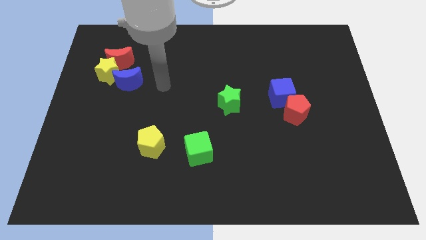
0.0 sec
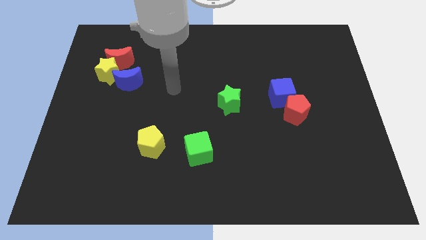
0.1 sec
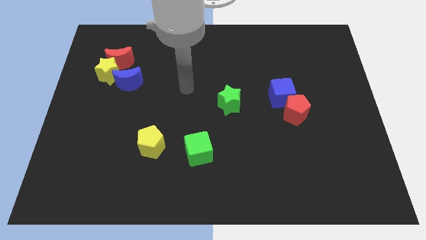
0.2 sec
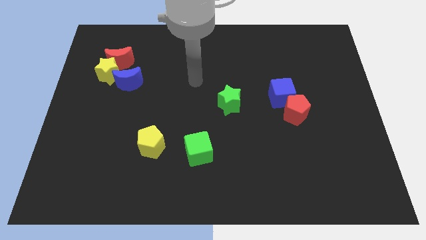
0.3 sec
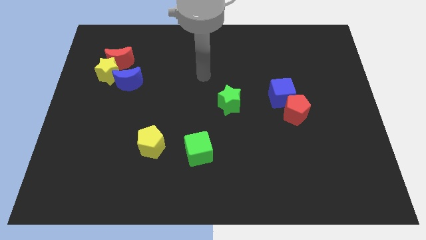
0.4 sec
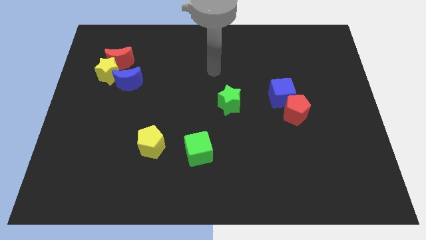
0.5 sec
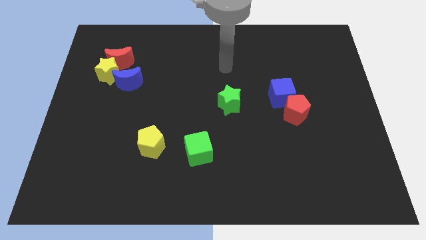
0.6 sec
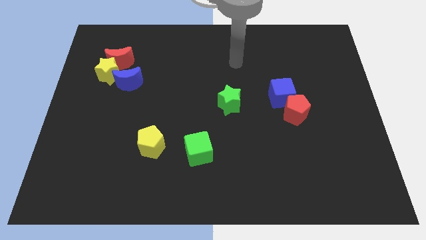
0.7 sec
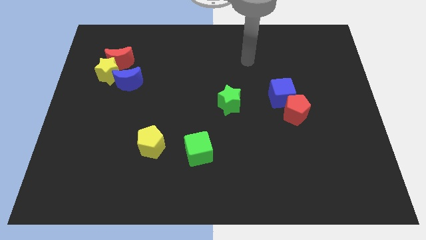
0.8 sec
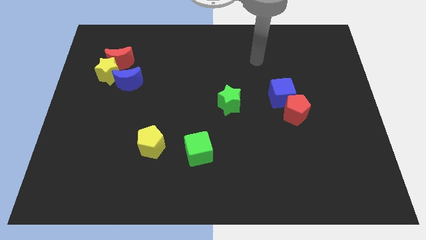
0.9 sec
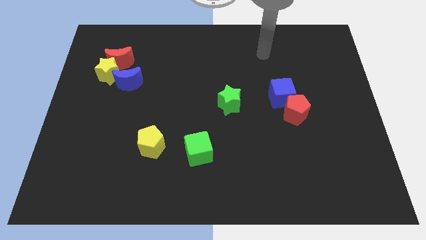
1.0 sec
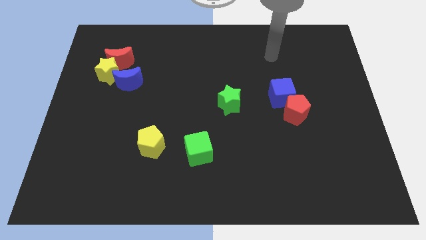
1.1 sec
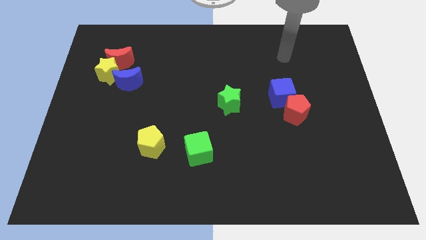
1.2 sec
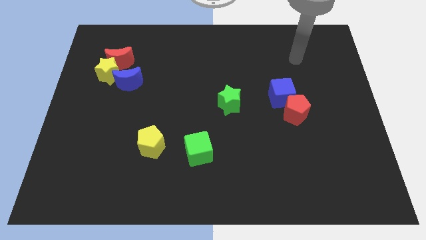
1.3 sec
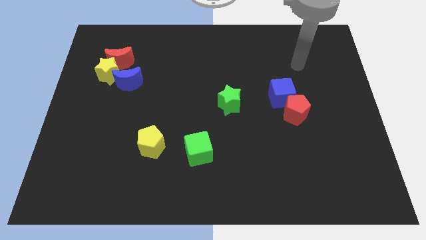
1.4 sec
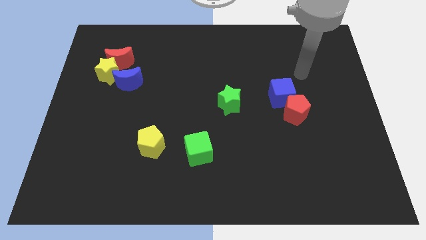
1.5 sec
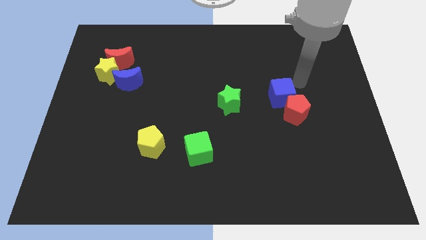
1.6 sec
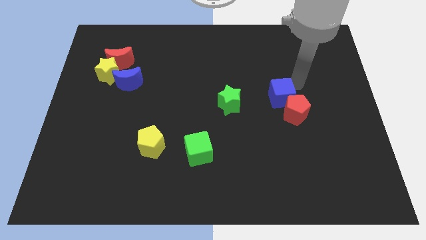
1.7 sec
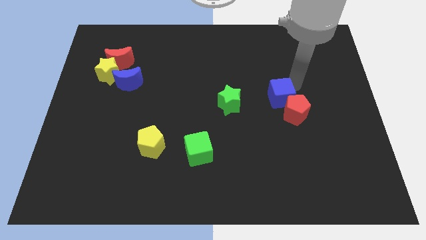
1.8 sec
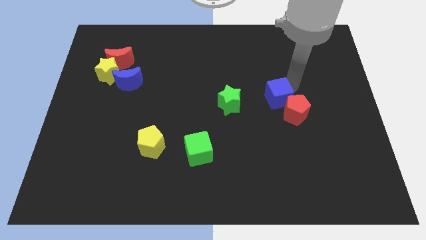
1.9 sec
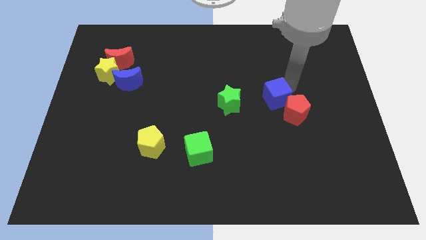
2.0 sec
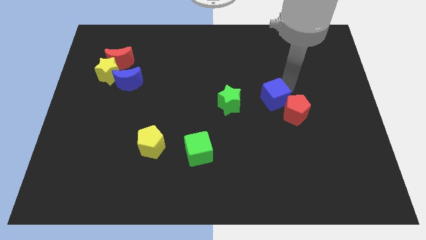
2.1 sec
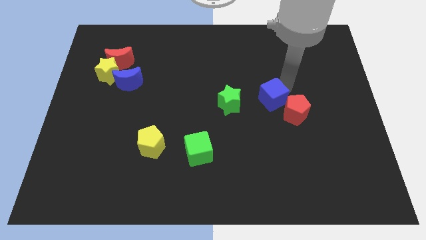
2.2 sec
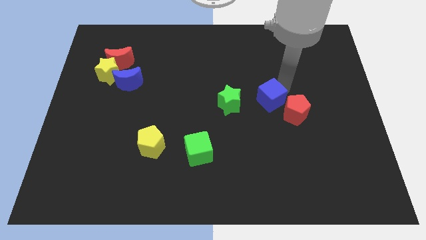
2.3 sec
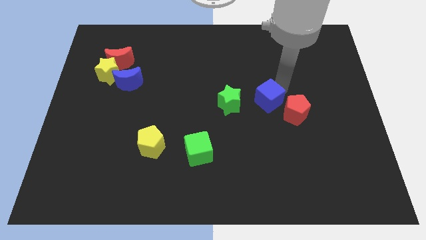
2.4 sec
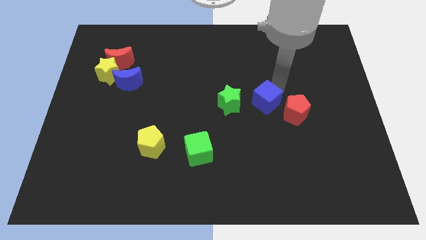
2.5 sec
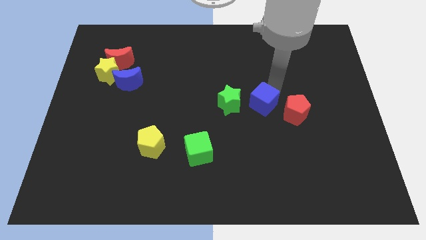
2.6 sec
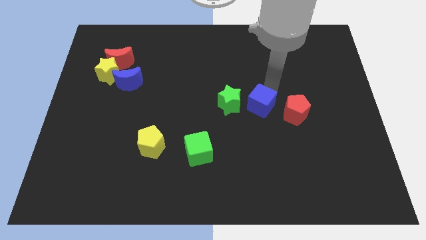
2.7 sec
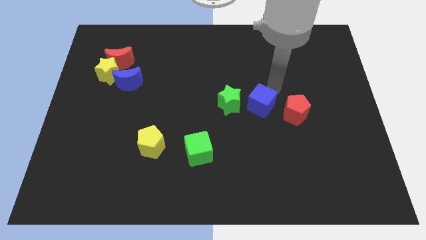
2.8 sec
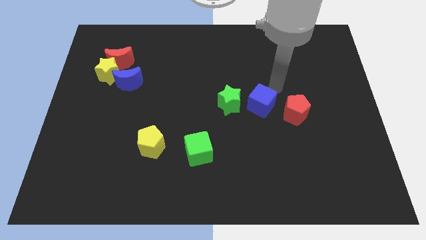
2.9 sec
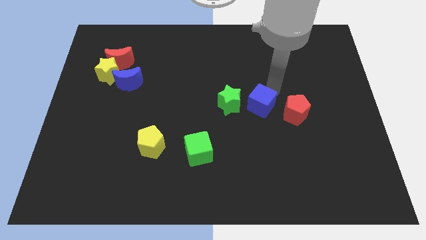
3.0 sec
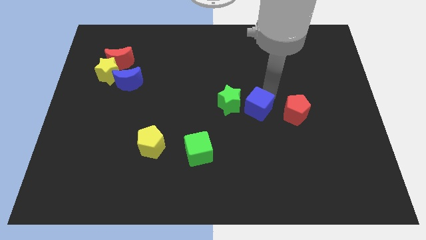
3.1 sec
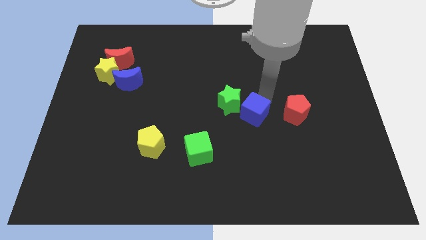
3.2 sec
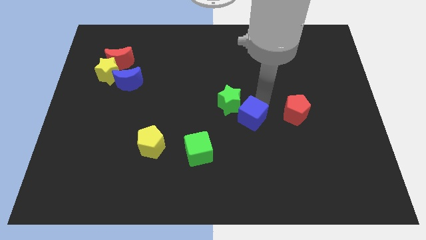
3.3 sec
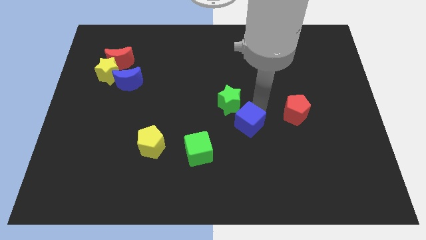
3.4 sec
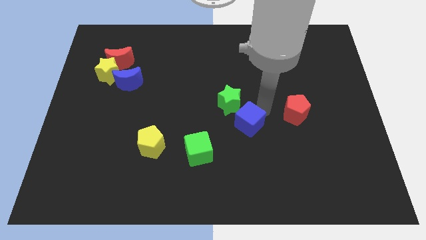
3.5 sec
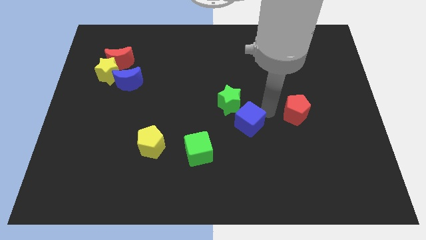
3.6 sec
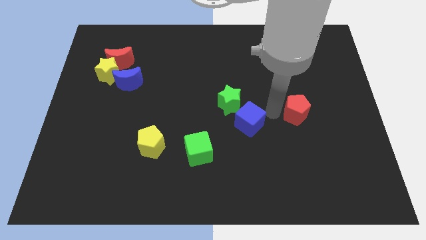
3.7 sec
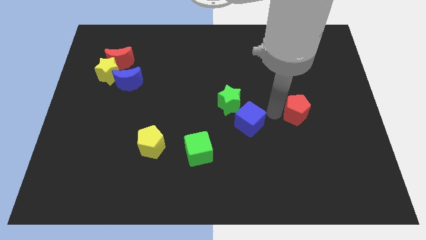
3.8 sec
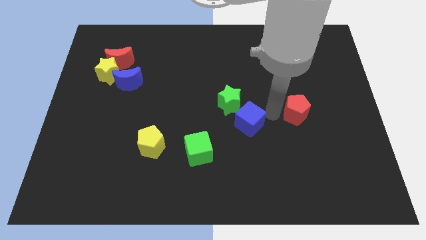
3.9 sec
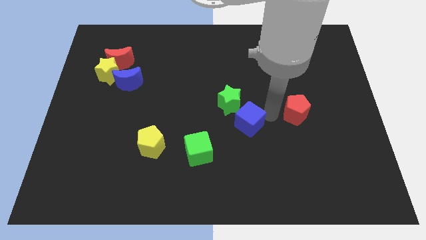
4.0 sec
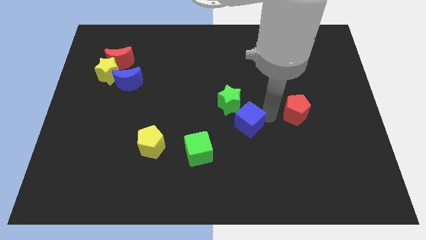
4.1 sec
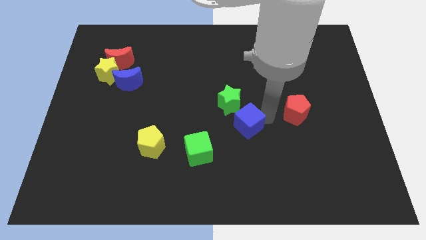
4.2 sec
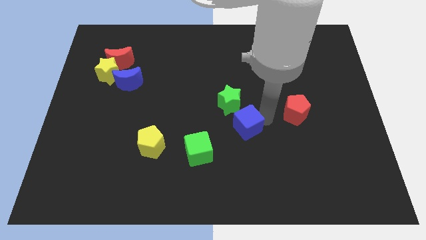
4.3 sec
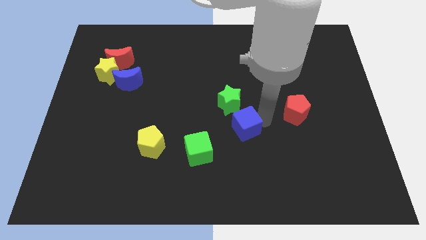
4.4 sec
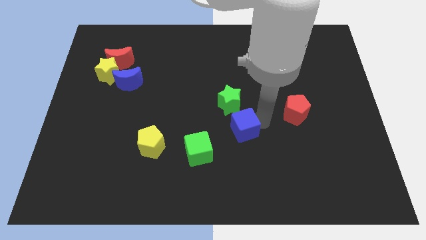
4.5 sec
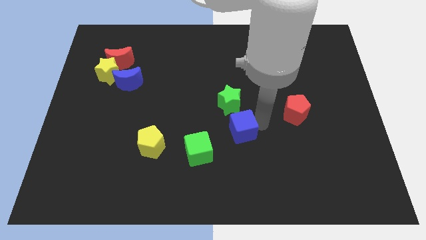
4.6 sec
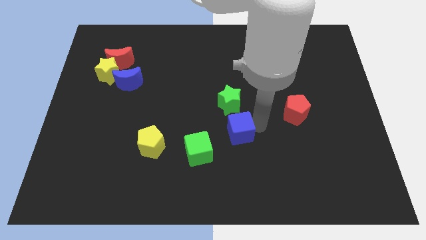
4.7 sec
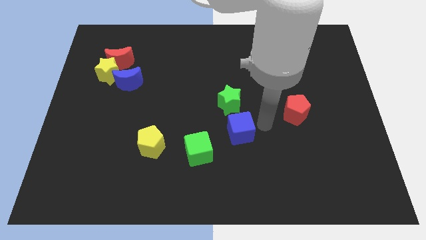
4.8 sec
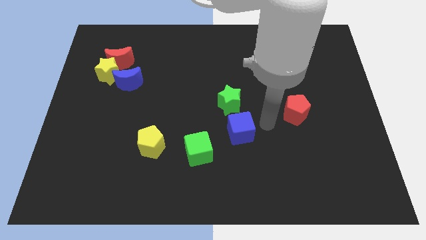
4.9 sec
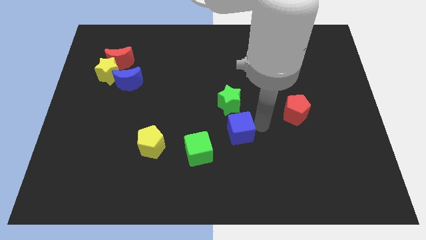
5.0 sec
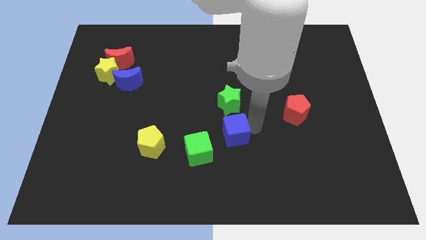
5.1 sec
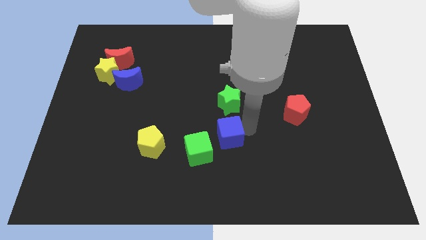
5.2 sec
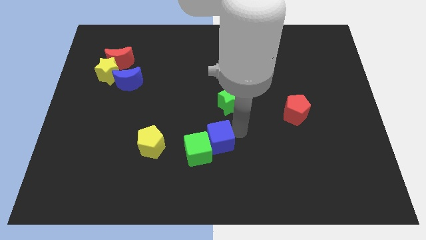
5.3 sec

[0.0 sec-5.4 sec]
move the blue cube close to the green cube

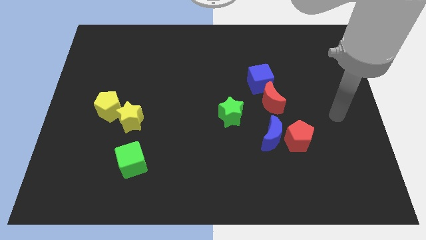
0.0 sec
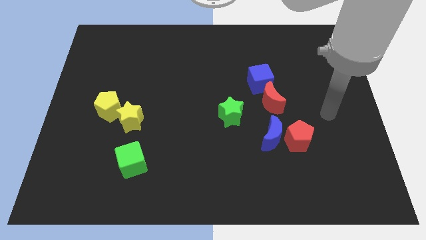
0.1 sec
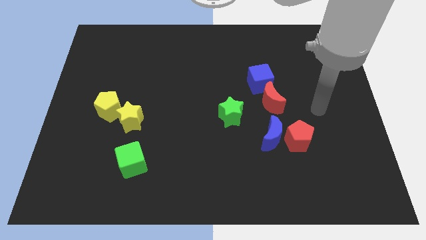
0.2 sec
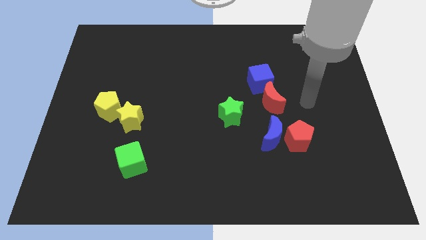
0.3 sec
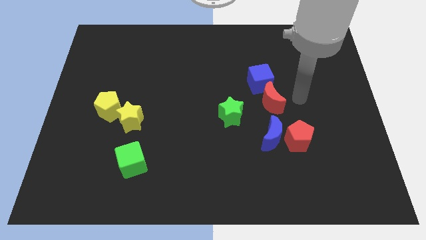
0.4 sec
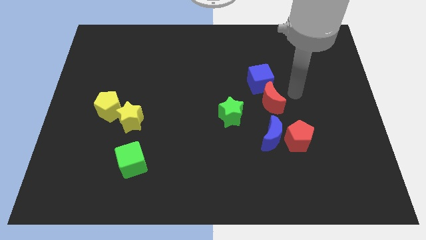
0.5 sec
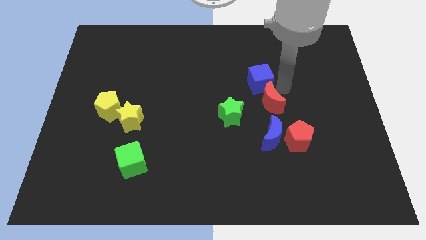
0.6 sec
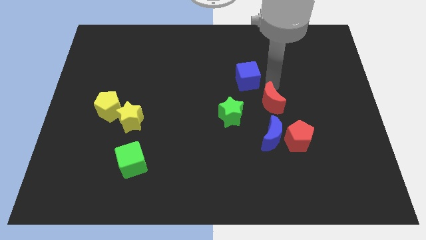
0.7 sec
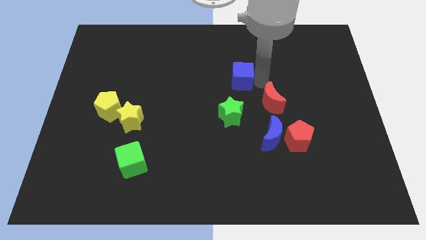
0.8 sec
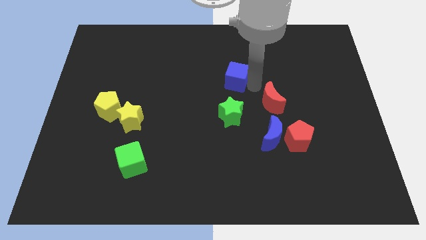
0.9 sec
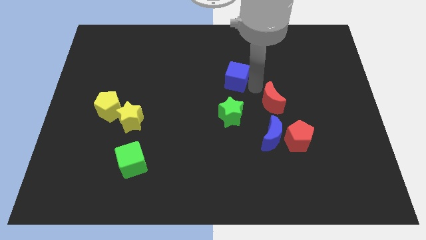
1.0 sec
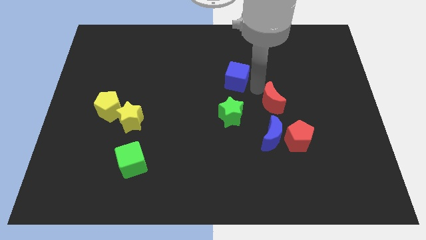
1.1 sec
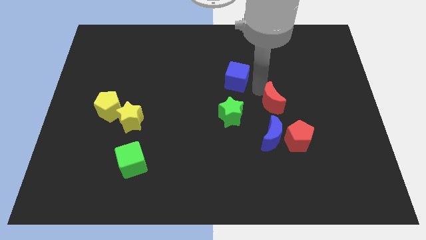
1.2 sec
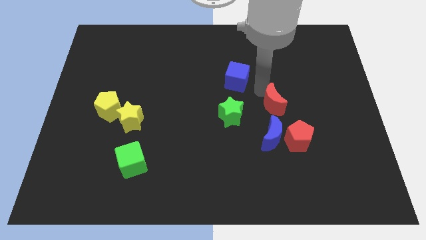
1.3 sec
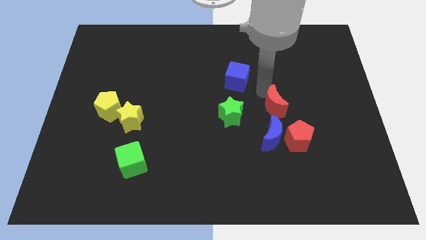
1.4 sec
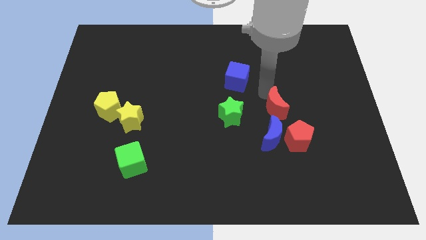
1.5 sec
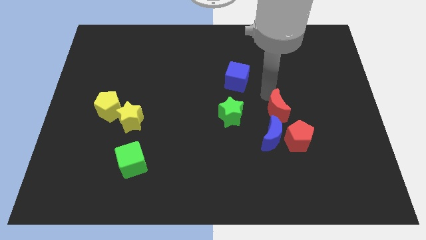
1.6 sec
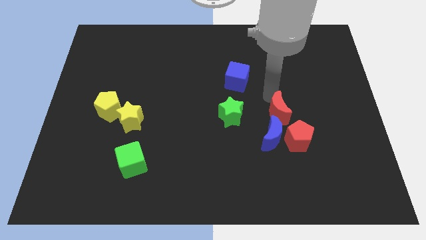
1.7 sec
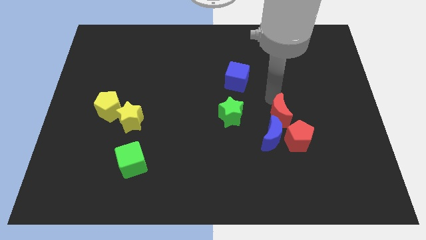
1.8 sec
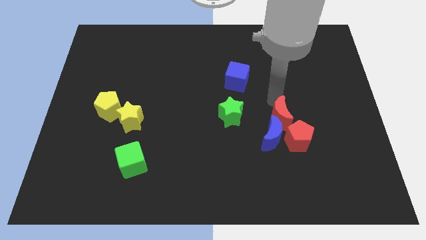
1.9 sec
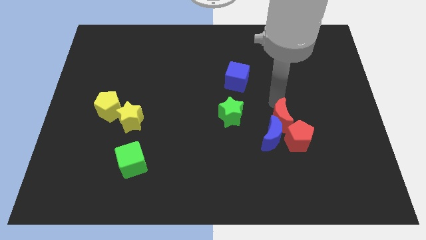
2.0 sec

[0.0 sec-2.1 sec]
push the red moon next to the red pentagon
